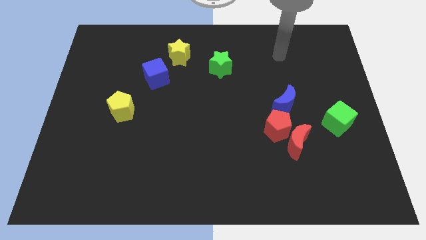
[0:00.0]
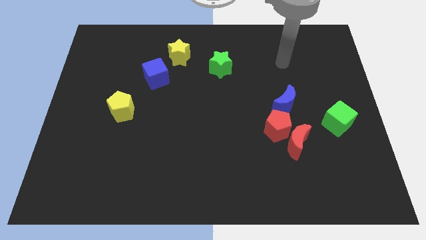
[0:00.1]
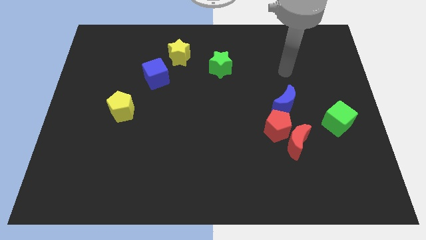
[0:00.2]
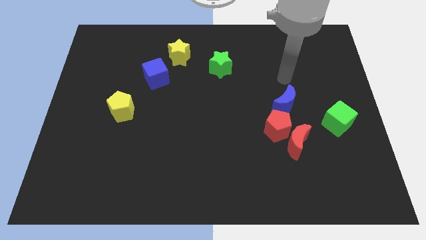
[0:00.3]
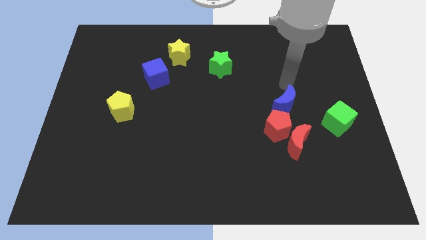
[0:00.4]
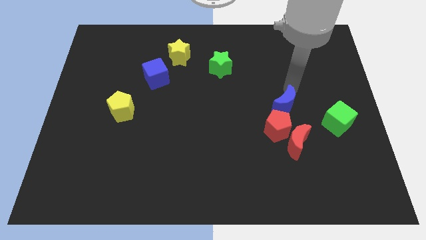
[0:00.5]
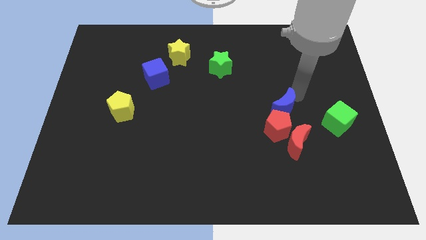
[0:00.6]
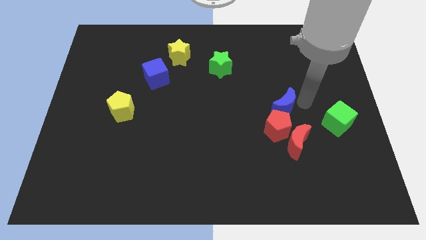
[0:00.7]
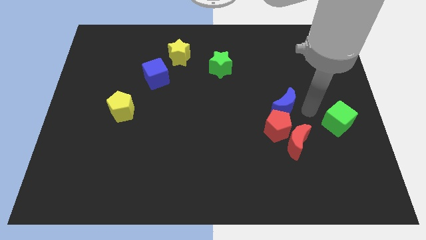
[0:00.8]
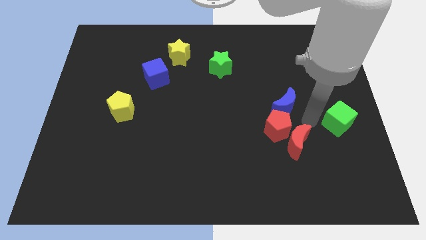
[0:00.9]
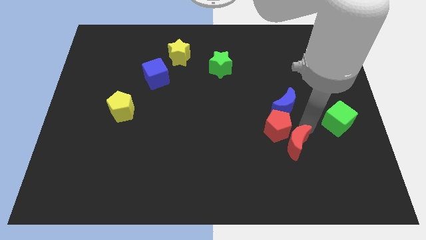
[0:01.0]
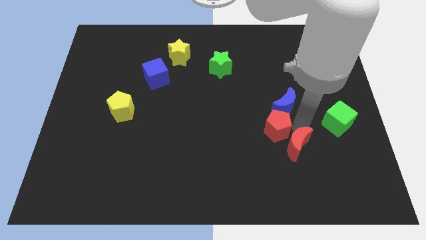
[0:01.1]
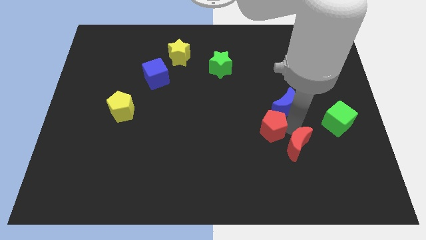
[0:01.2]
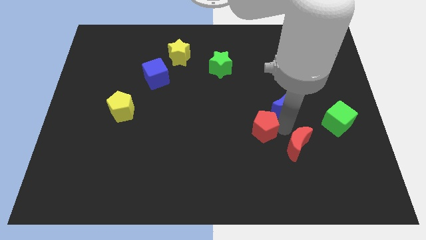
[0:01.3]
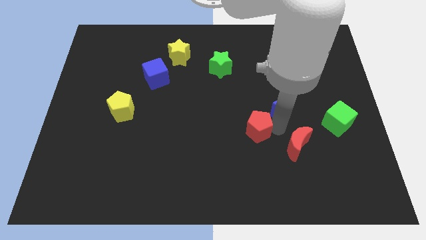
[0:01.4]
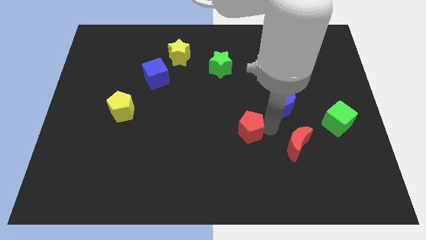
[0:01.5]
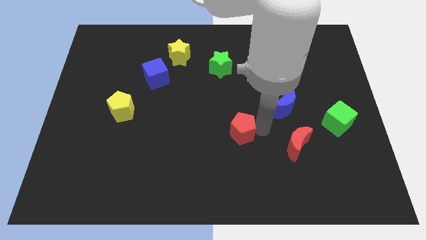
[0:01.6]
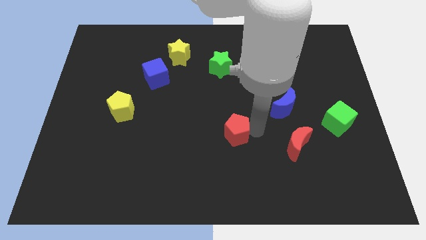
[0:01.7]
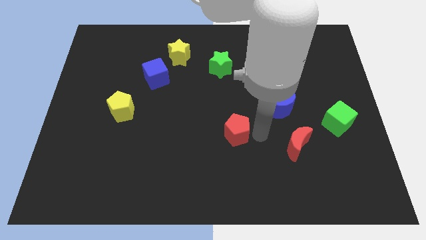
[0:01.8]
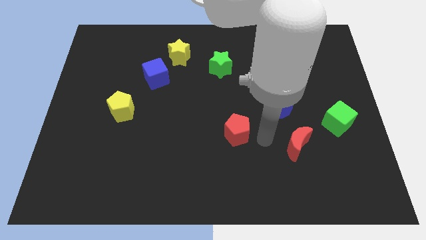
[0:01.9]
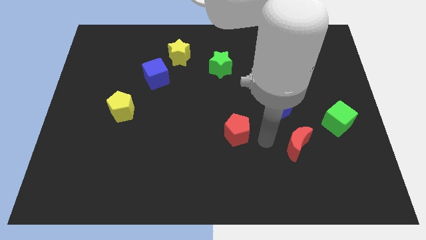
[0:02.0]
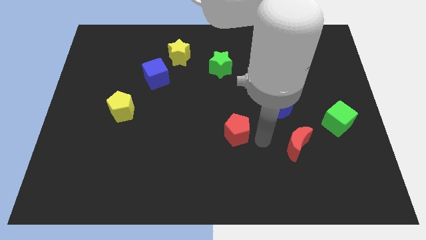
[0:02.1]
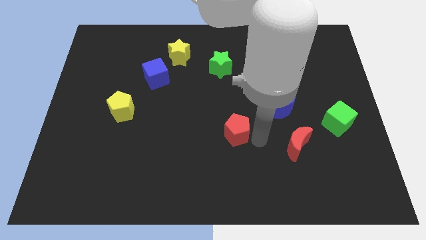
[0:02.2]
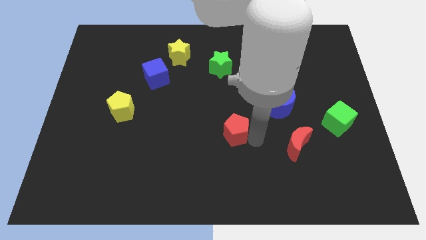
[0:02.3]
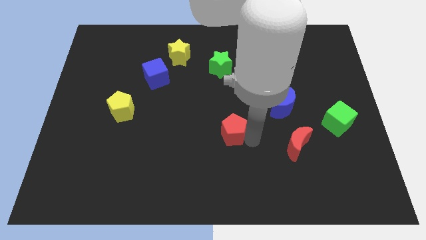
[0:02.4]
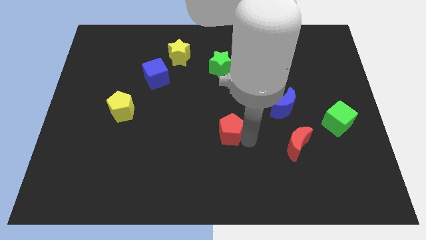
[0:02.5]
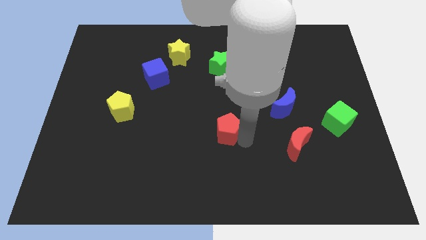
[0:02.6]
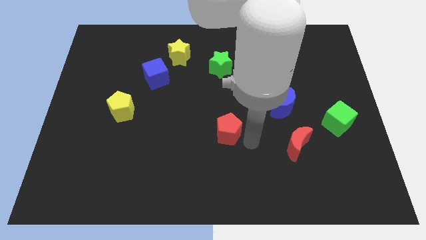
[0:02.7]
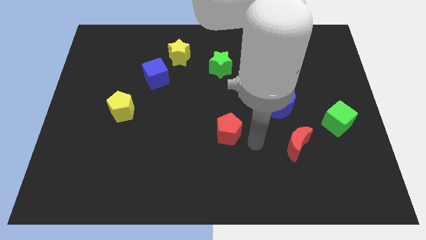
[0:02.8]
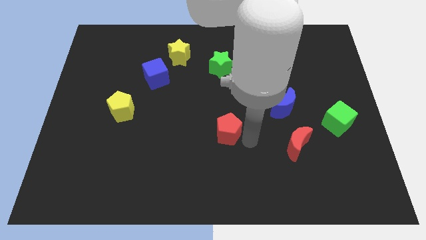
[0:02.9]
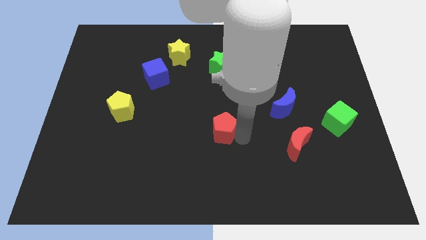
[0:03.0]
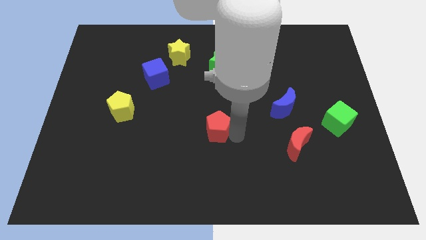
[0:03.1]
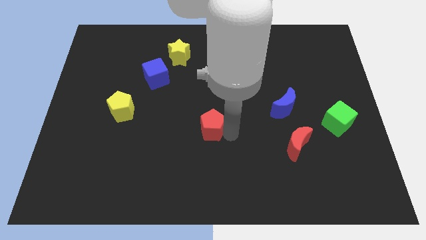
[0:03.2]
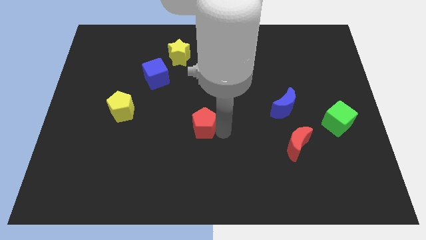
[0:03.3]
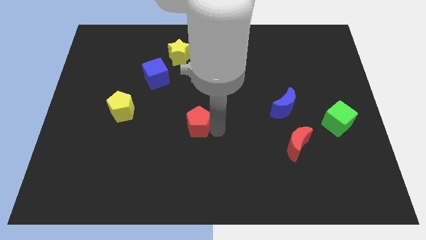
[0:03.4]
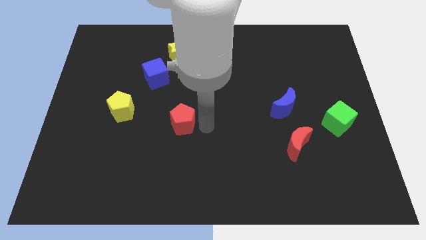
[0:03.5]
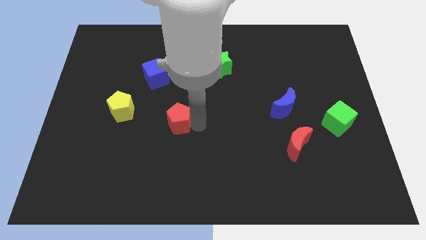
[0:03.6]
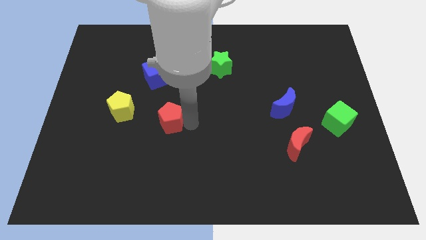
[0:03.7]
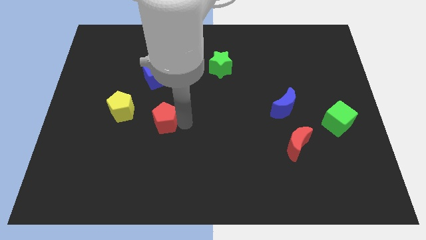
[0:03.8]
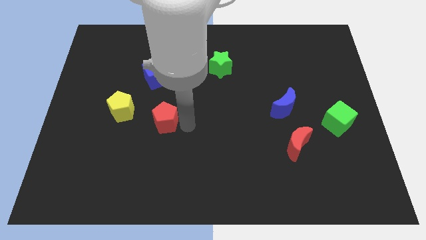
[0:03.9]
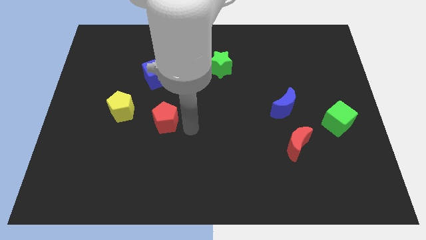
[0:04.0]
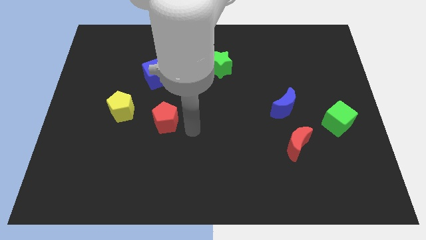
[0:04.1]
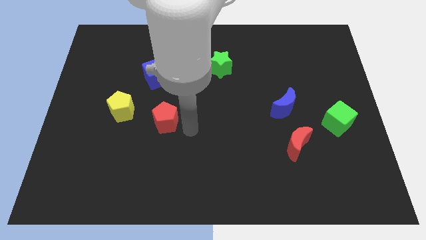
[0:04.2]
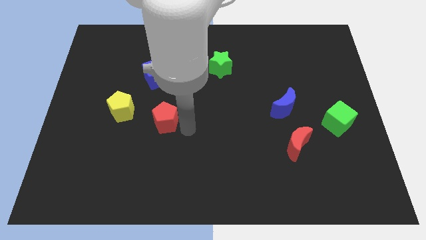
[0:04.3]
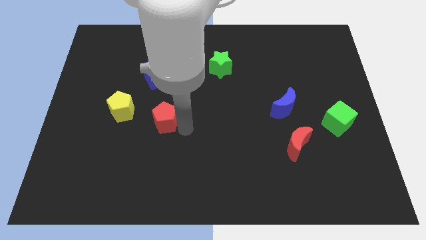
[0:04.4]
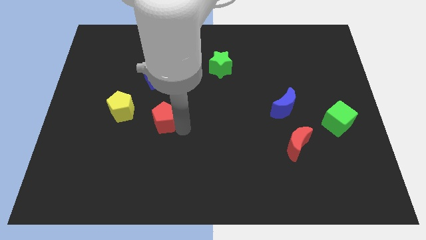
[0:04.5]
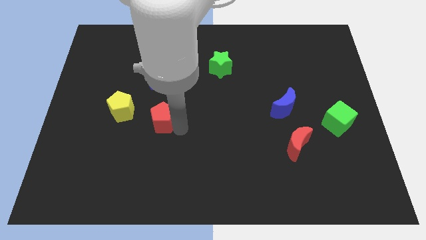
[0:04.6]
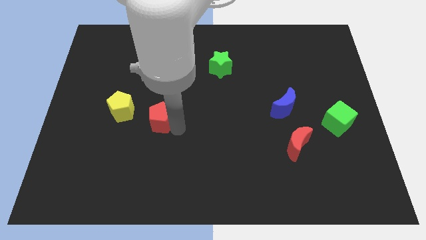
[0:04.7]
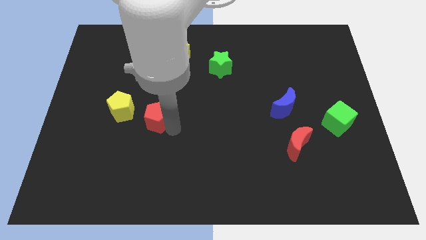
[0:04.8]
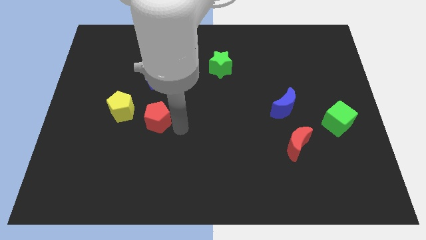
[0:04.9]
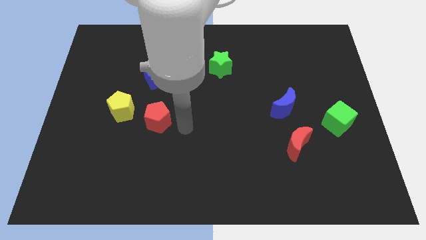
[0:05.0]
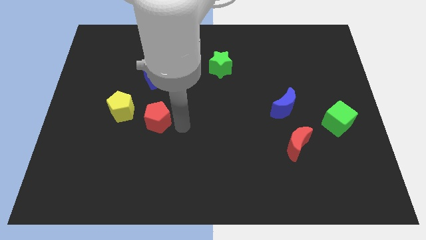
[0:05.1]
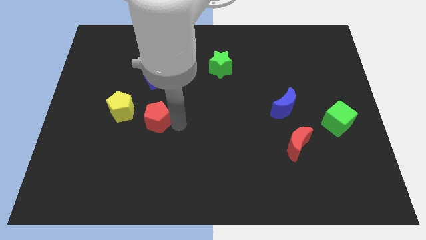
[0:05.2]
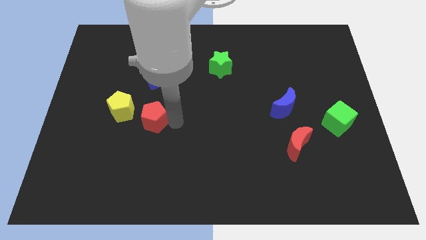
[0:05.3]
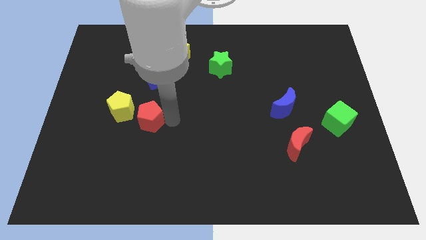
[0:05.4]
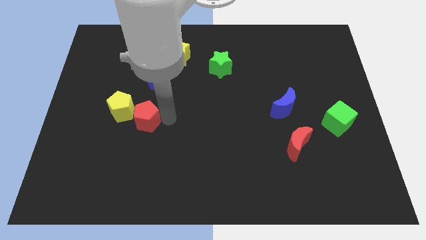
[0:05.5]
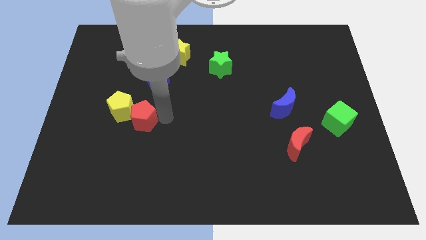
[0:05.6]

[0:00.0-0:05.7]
move the red pentagon to the yellow pentagon

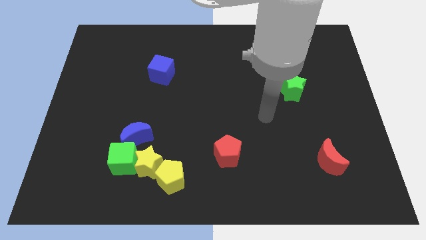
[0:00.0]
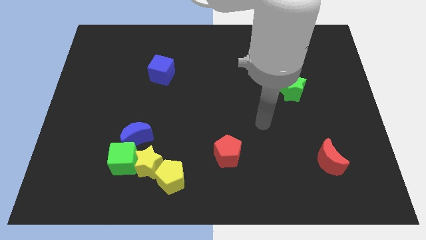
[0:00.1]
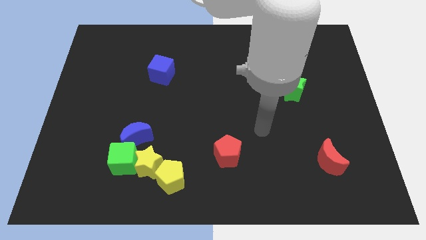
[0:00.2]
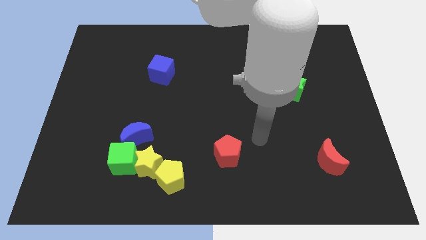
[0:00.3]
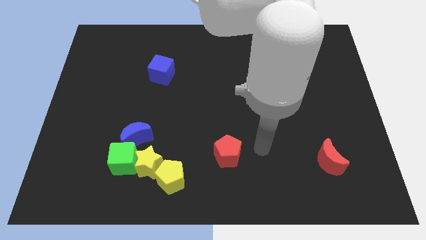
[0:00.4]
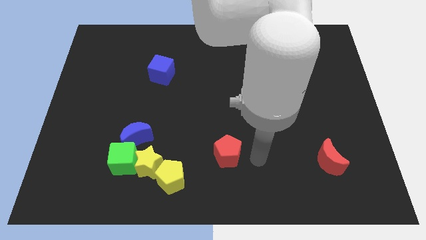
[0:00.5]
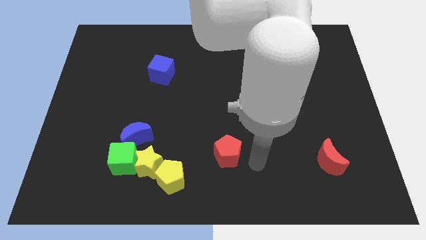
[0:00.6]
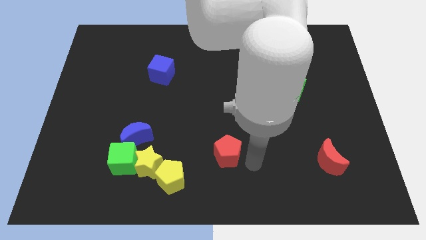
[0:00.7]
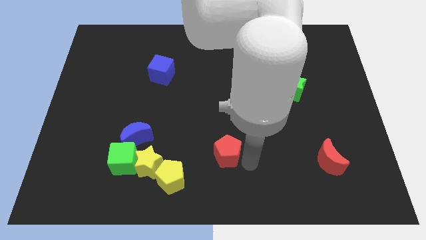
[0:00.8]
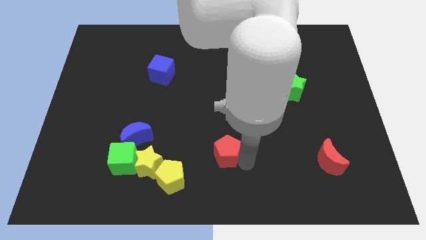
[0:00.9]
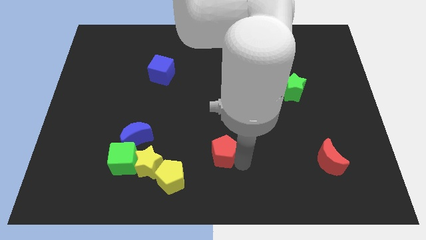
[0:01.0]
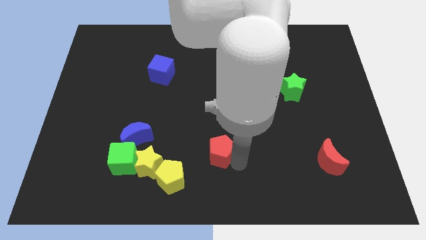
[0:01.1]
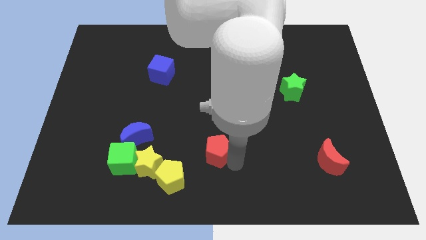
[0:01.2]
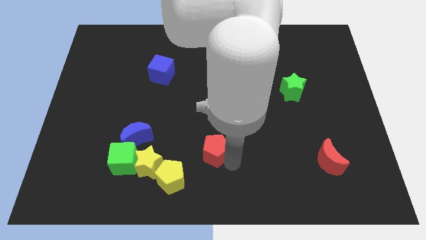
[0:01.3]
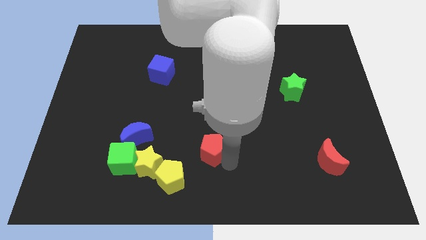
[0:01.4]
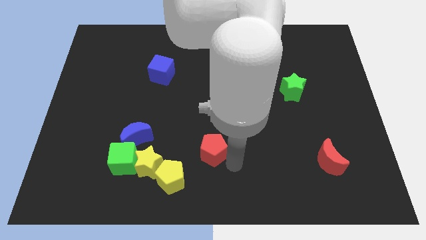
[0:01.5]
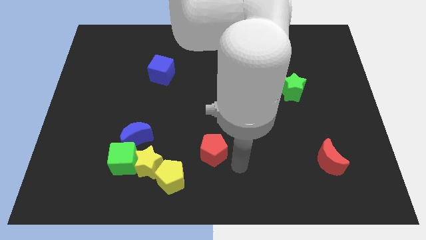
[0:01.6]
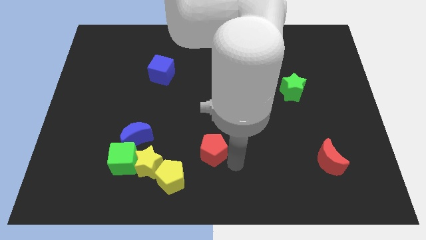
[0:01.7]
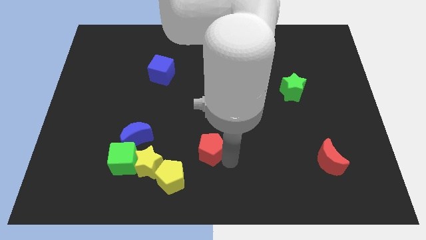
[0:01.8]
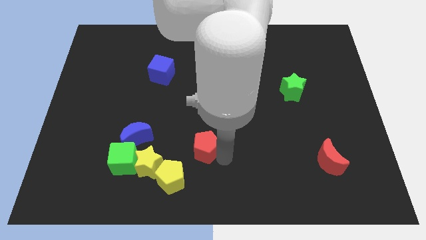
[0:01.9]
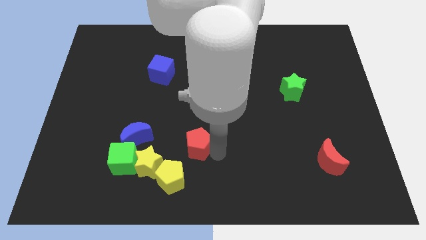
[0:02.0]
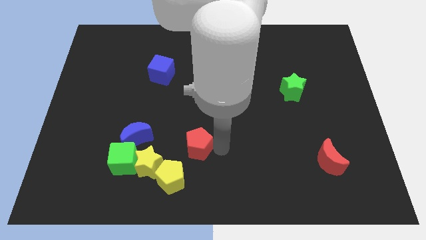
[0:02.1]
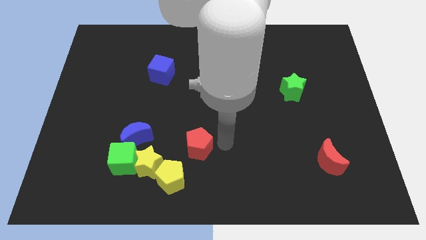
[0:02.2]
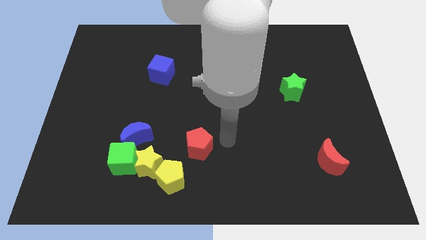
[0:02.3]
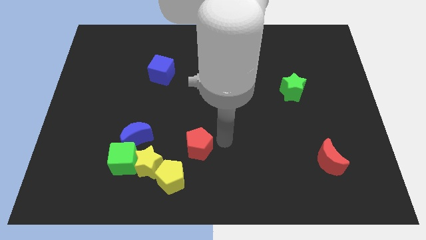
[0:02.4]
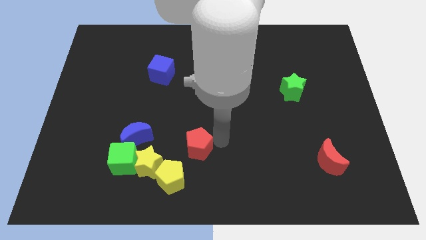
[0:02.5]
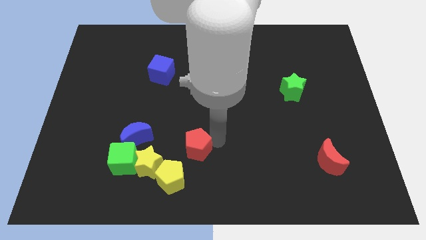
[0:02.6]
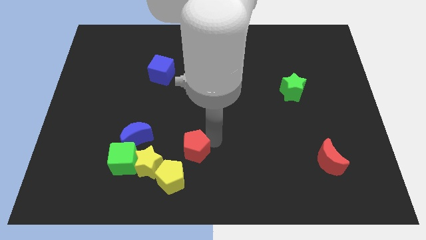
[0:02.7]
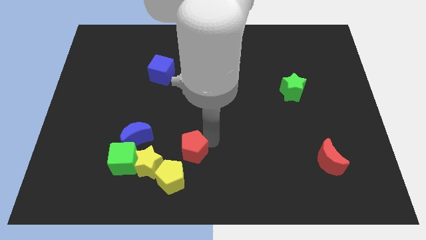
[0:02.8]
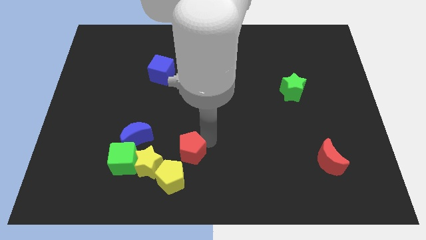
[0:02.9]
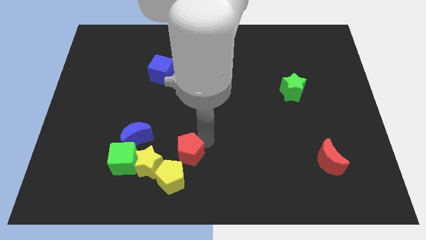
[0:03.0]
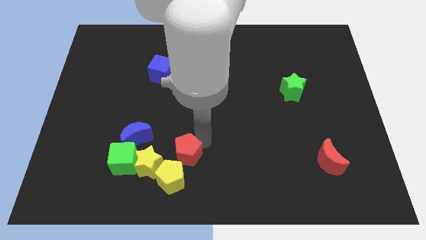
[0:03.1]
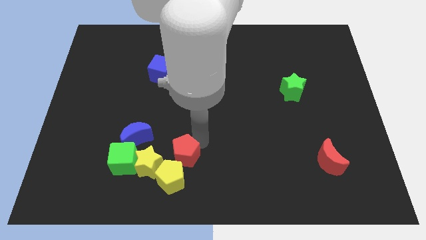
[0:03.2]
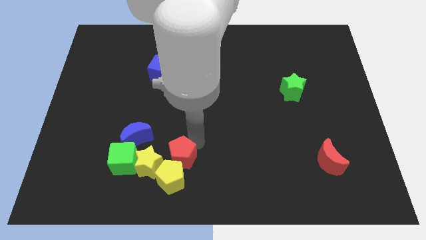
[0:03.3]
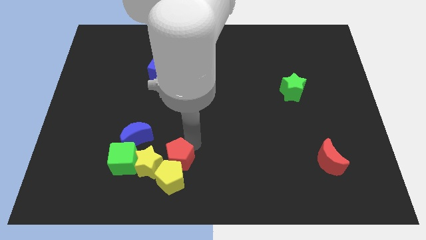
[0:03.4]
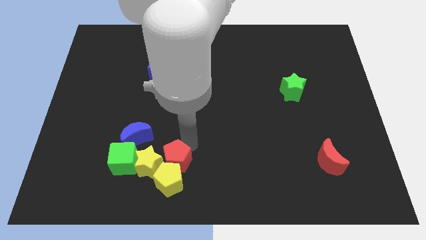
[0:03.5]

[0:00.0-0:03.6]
move the red pentagon towards the yellow star
